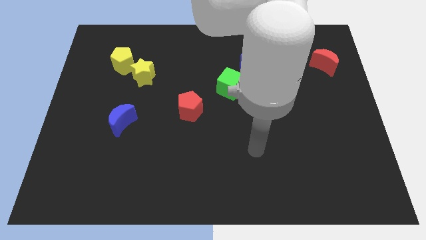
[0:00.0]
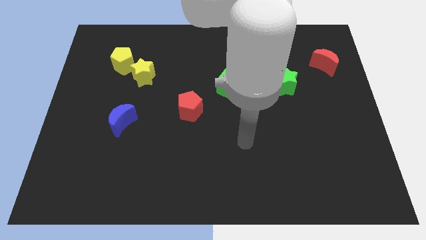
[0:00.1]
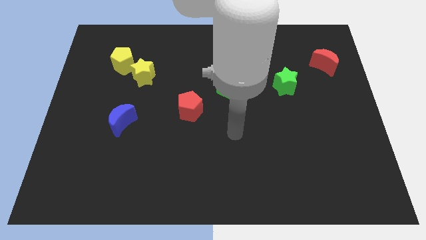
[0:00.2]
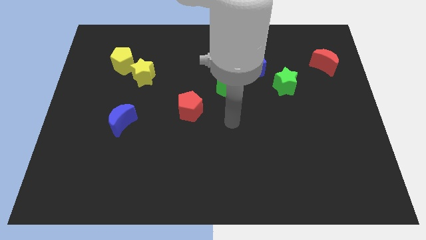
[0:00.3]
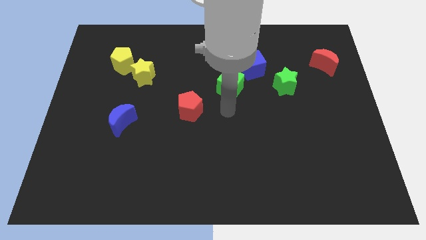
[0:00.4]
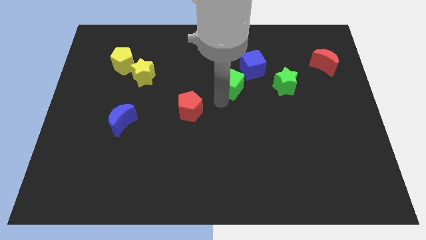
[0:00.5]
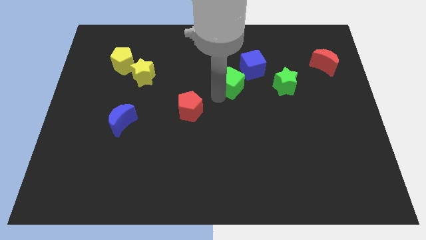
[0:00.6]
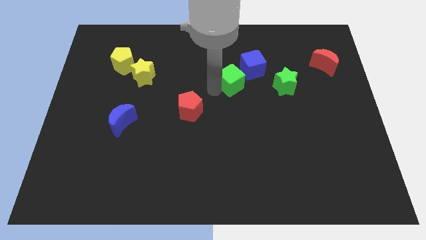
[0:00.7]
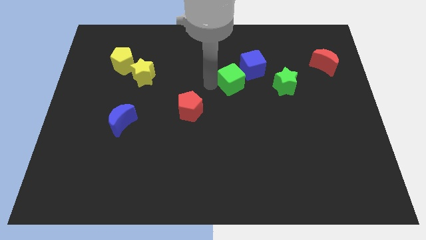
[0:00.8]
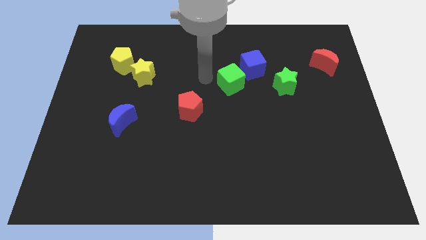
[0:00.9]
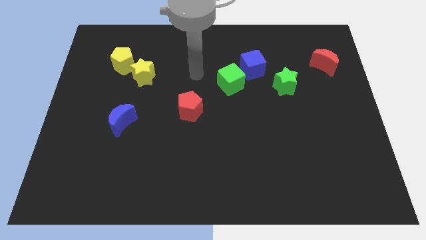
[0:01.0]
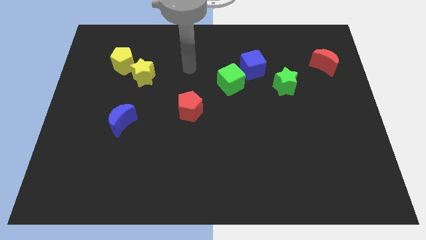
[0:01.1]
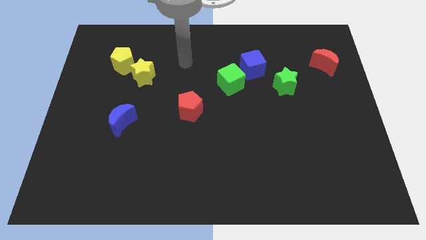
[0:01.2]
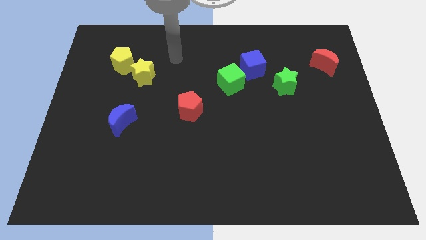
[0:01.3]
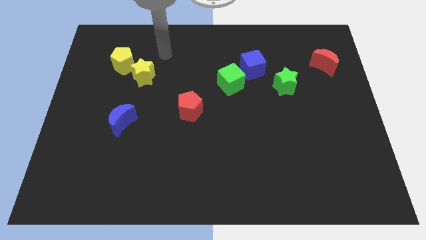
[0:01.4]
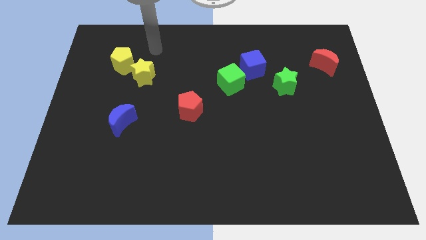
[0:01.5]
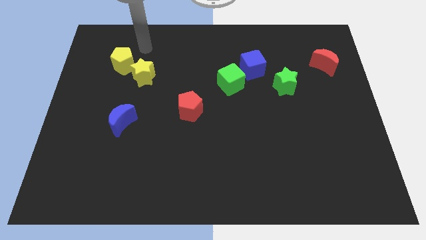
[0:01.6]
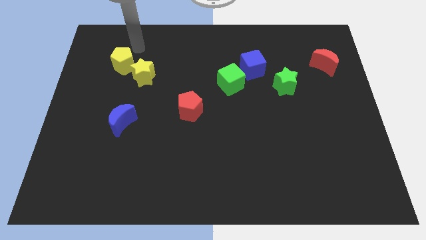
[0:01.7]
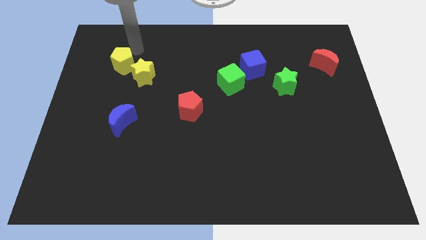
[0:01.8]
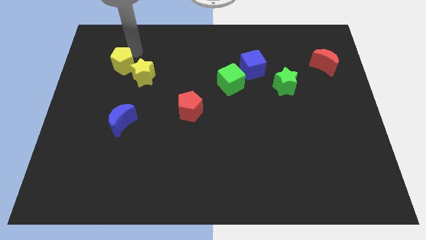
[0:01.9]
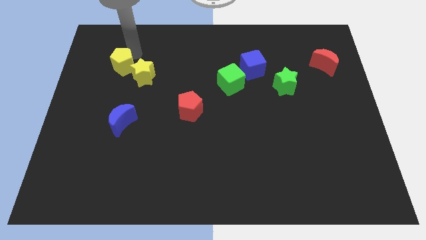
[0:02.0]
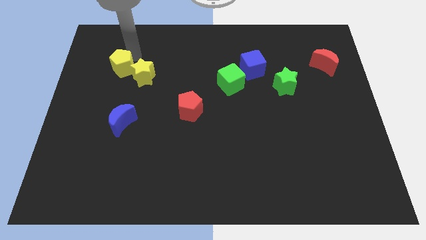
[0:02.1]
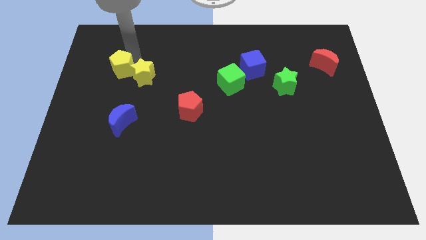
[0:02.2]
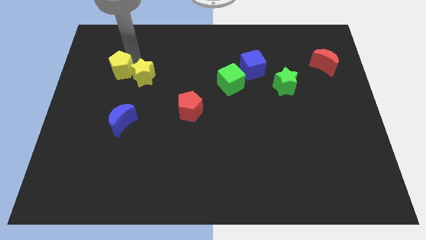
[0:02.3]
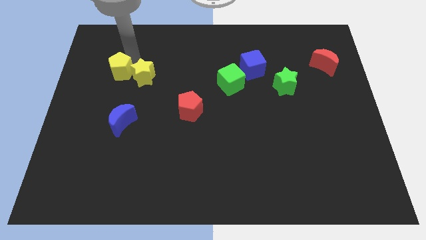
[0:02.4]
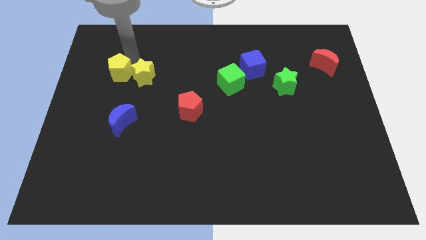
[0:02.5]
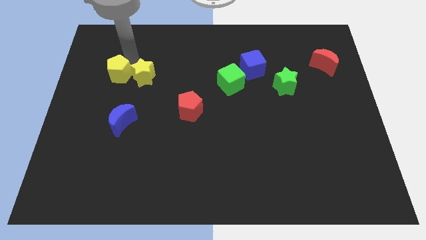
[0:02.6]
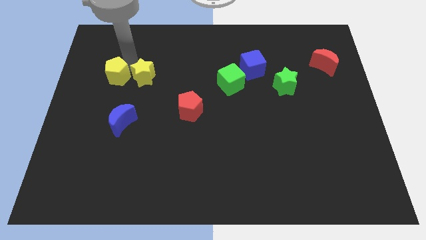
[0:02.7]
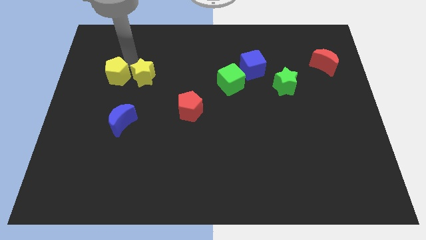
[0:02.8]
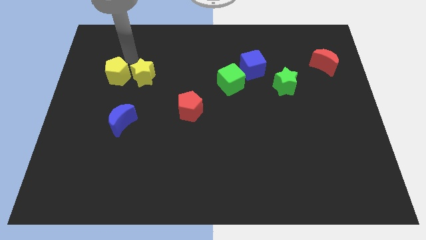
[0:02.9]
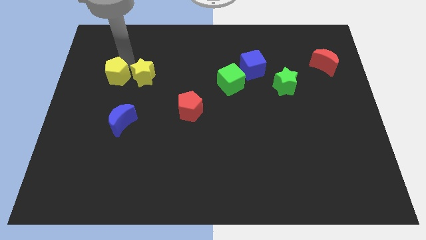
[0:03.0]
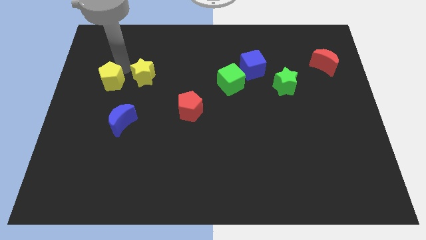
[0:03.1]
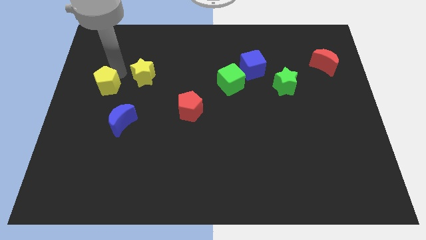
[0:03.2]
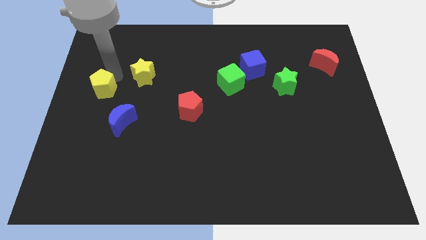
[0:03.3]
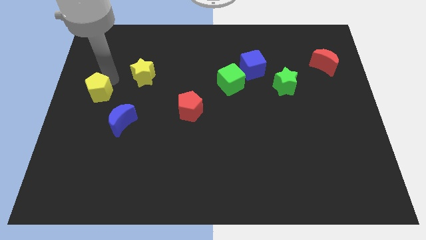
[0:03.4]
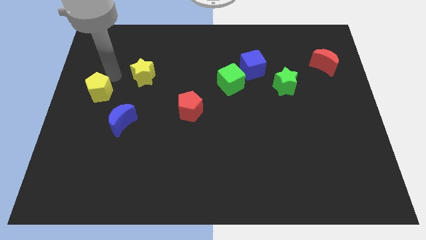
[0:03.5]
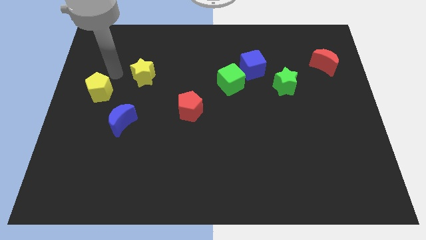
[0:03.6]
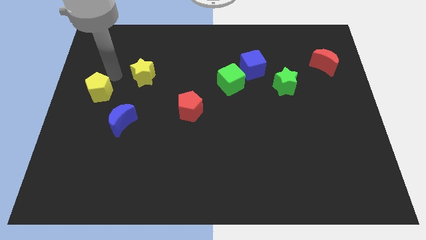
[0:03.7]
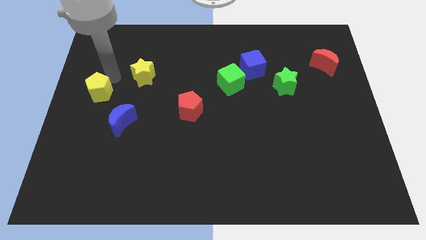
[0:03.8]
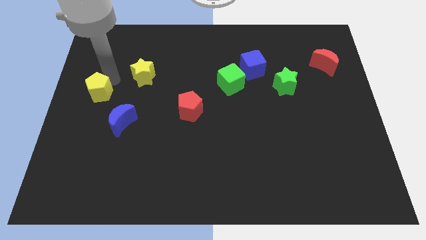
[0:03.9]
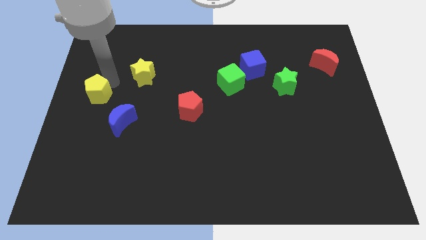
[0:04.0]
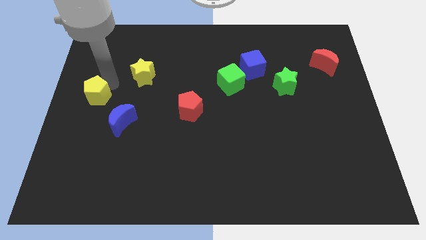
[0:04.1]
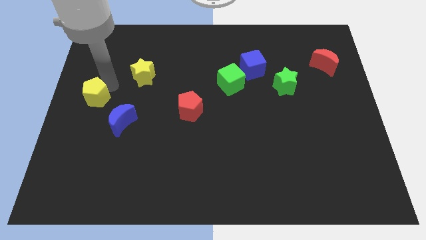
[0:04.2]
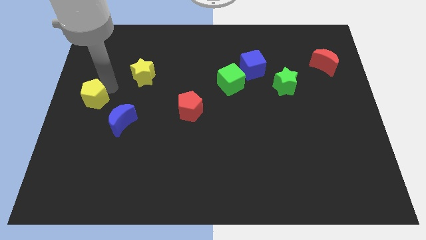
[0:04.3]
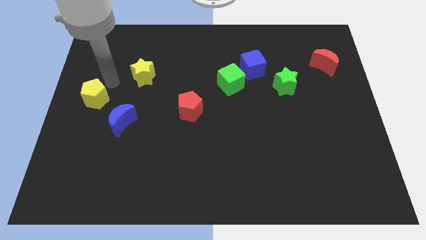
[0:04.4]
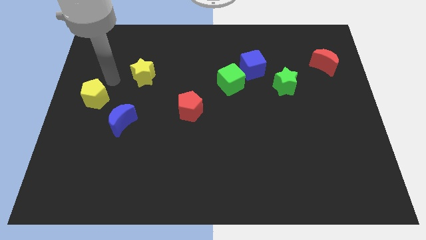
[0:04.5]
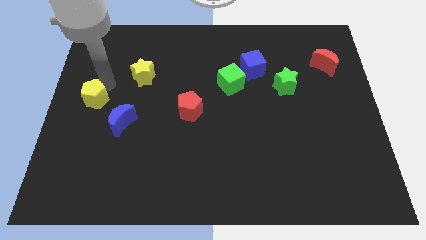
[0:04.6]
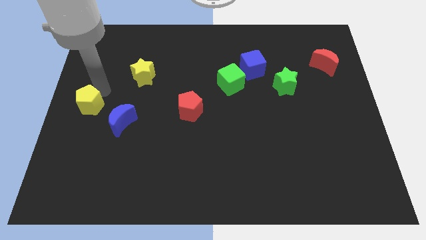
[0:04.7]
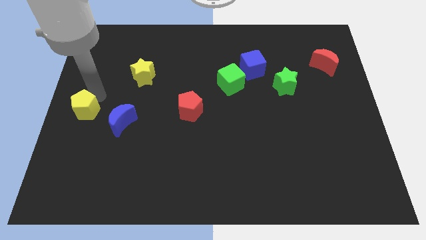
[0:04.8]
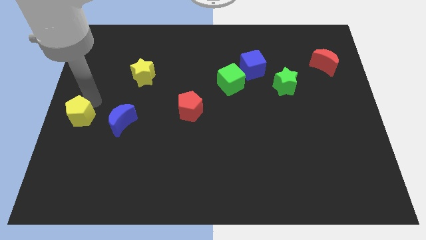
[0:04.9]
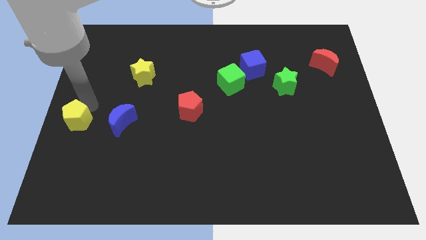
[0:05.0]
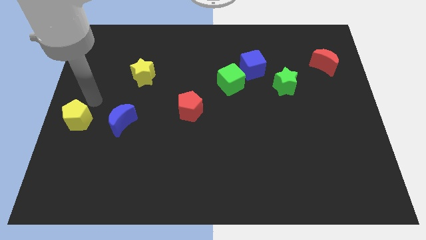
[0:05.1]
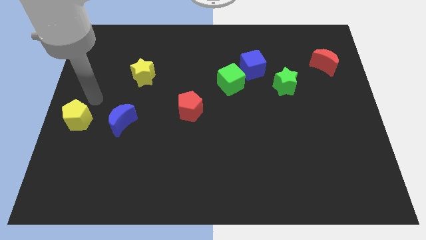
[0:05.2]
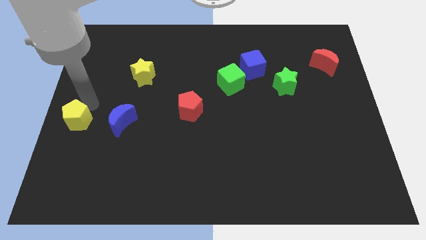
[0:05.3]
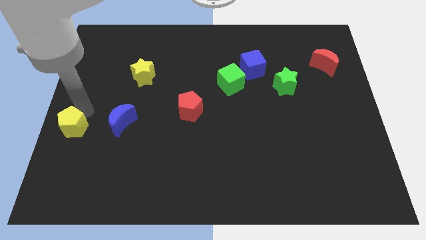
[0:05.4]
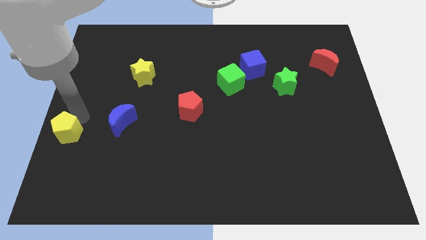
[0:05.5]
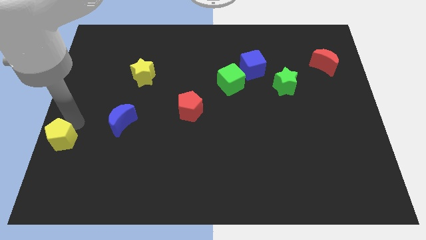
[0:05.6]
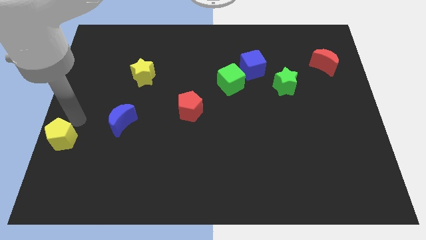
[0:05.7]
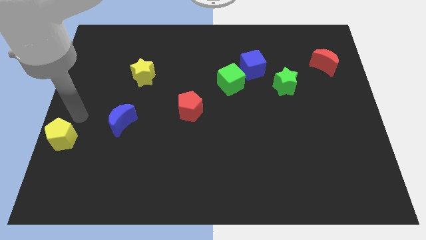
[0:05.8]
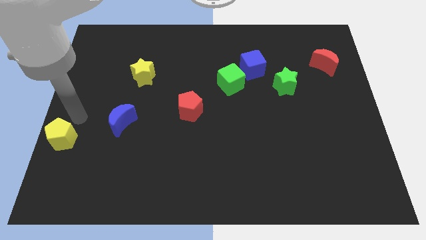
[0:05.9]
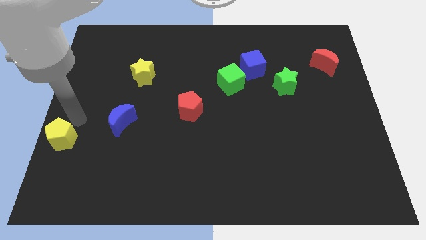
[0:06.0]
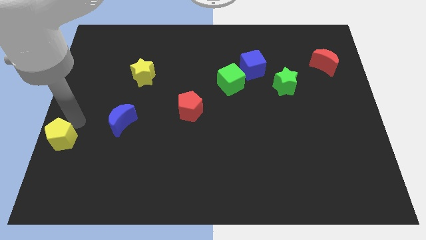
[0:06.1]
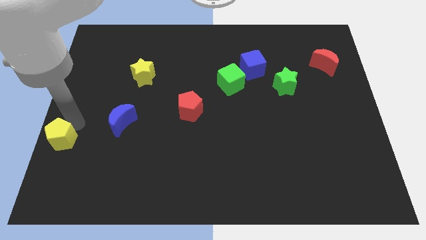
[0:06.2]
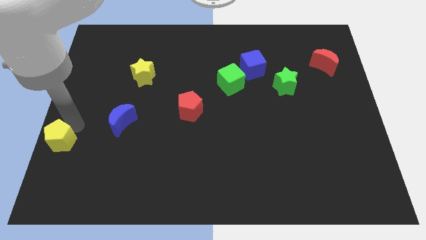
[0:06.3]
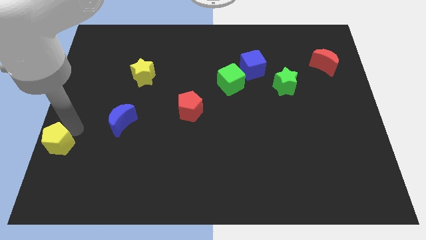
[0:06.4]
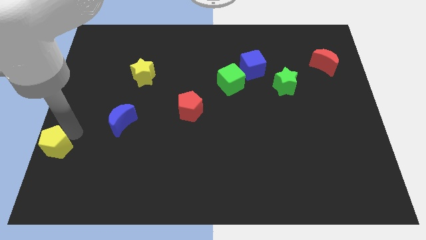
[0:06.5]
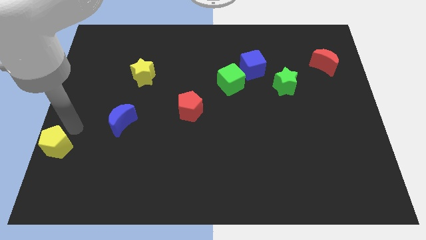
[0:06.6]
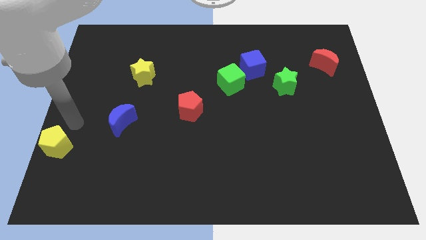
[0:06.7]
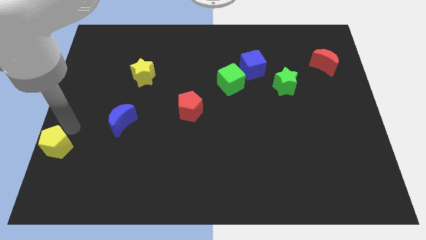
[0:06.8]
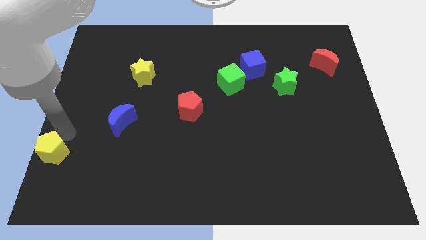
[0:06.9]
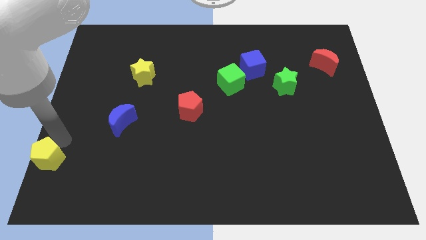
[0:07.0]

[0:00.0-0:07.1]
push the yellow pentagon to the lower left corner
